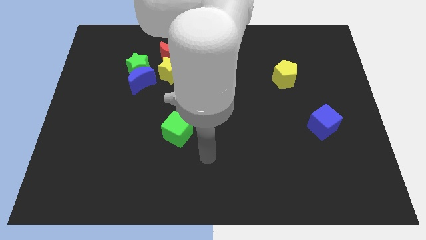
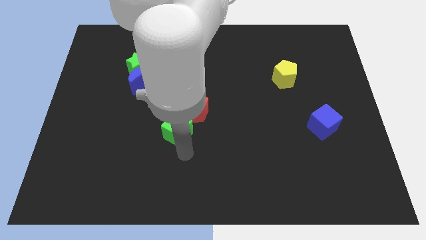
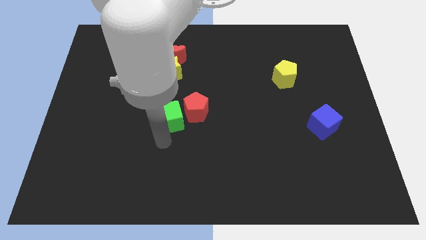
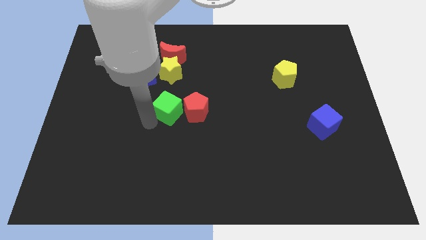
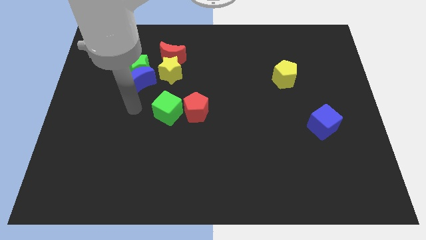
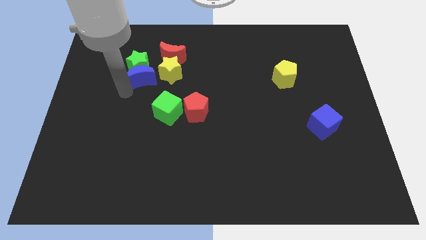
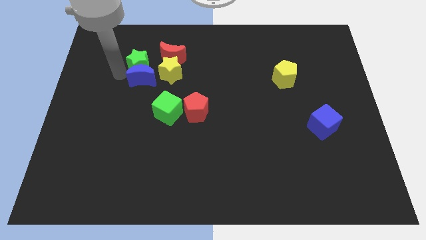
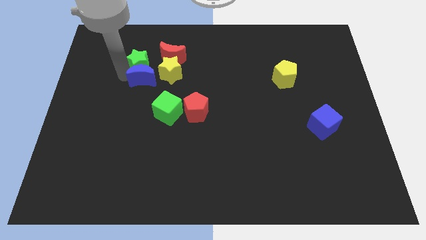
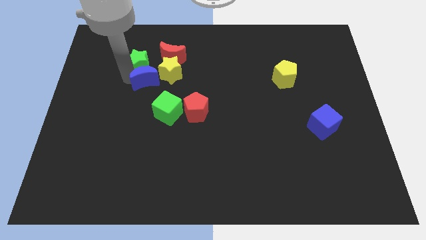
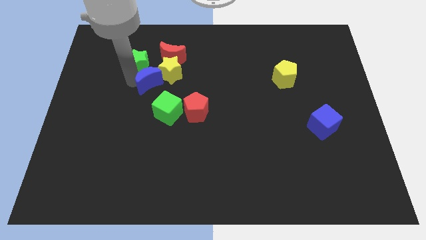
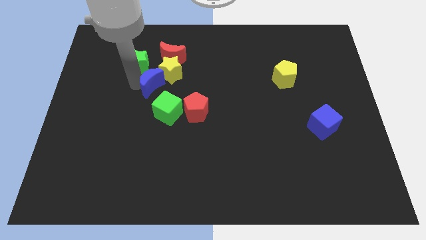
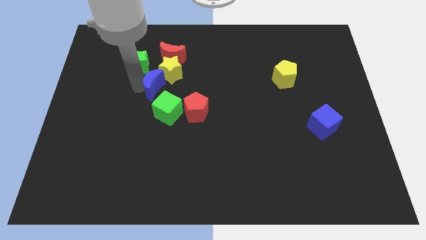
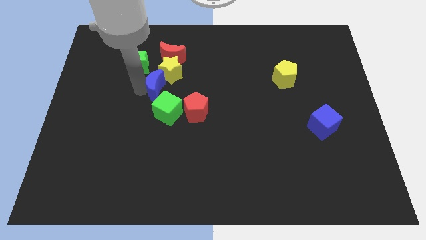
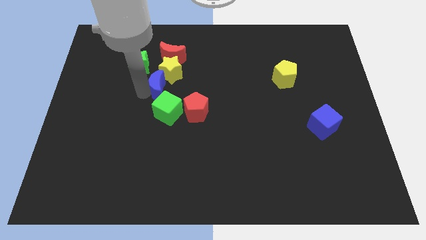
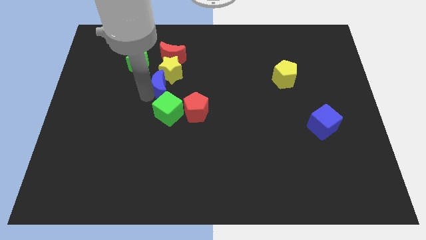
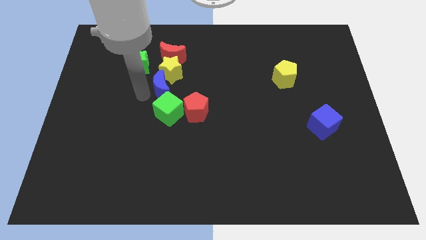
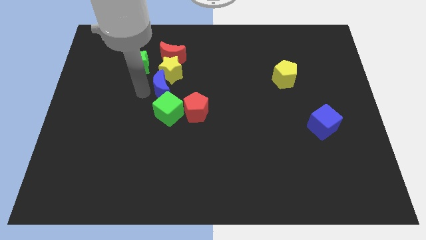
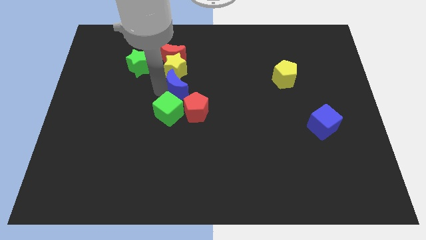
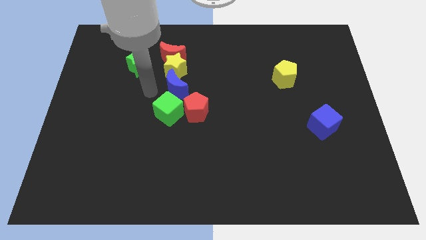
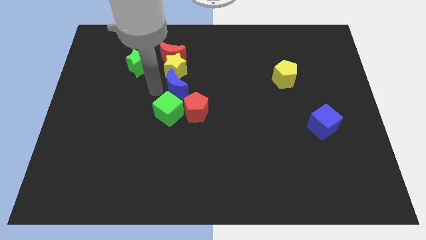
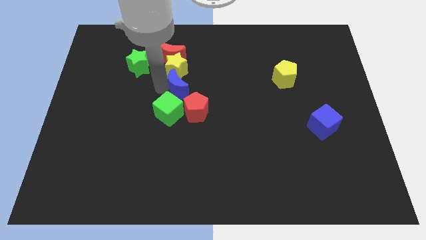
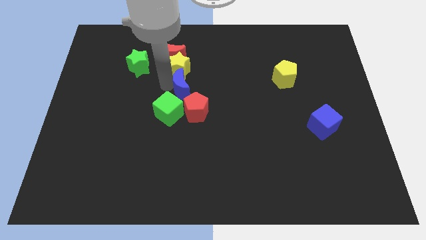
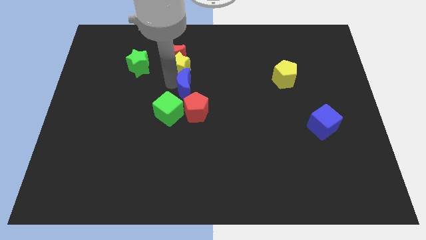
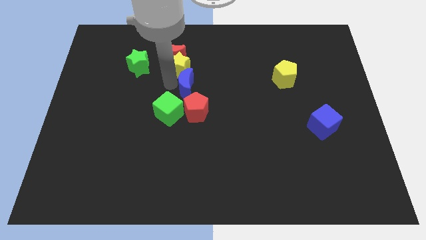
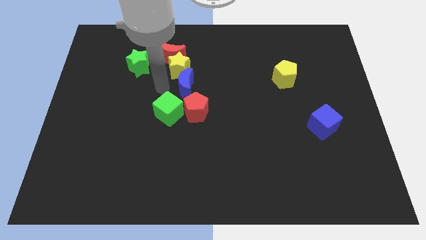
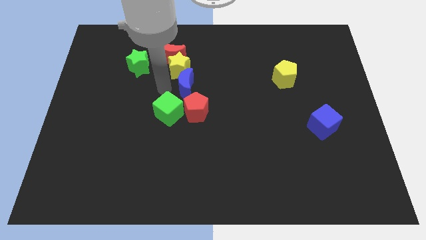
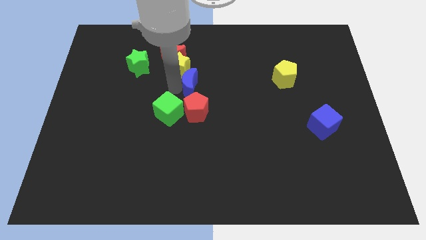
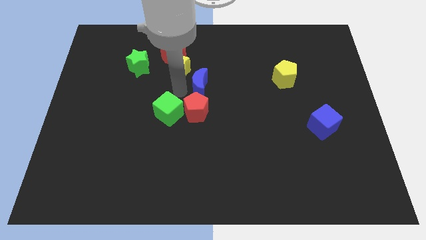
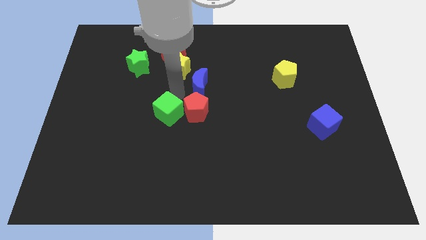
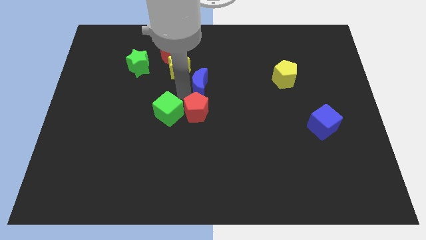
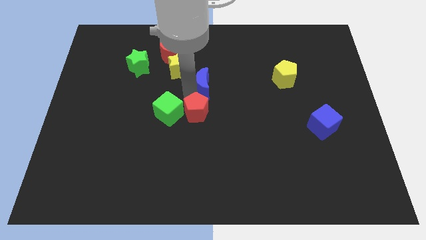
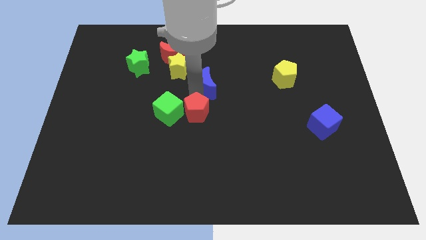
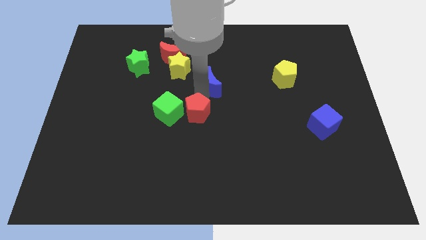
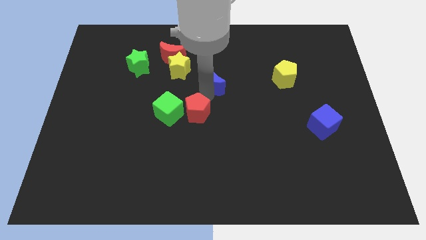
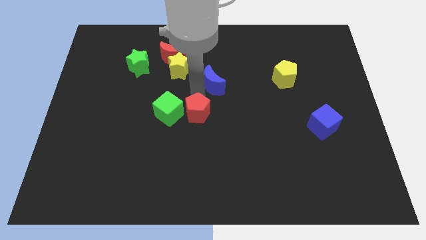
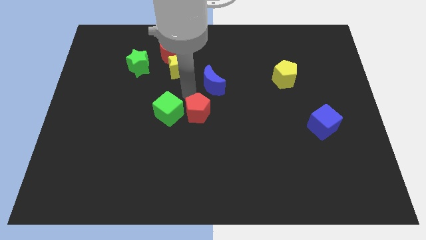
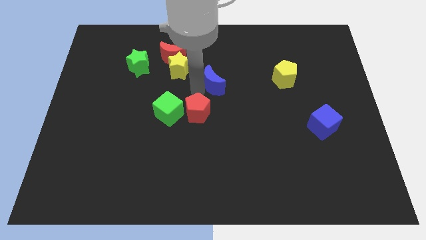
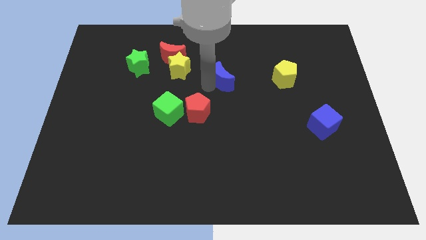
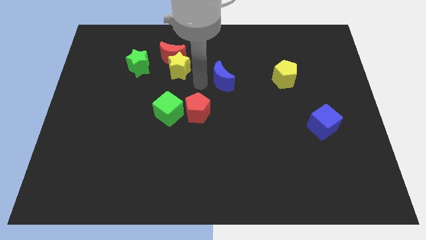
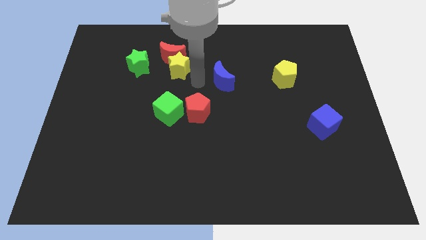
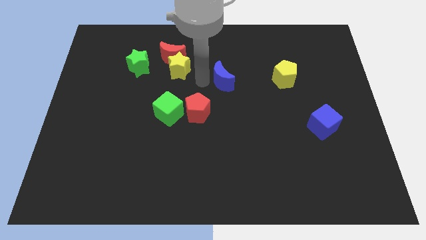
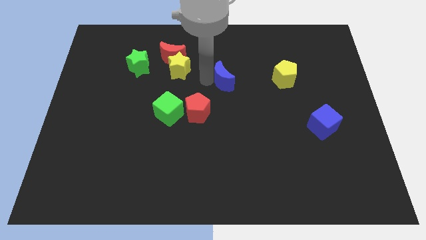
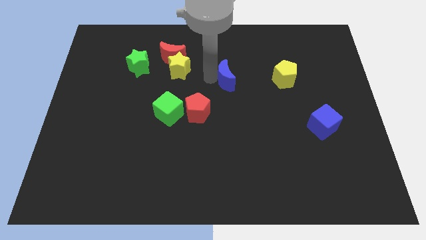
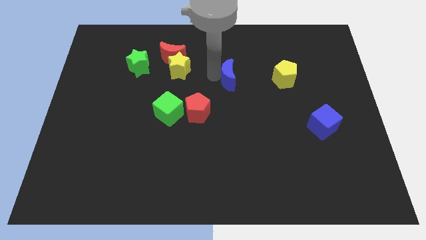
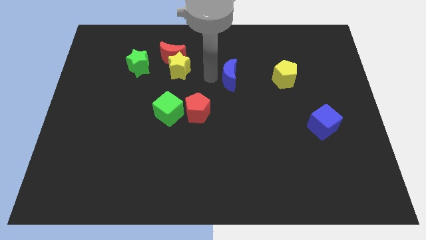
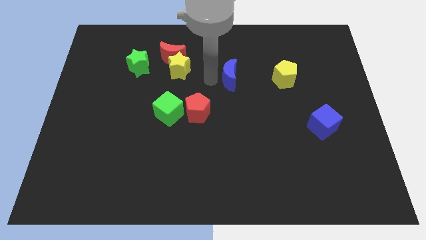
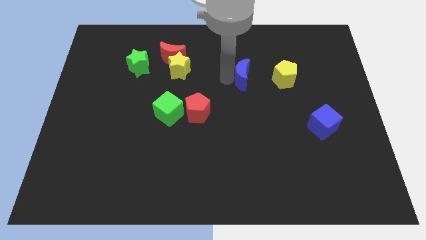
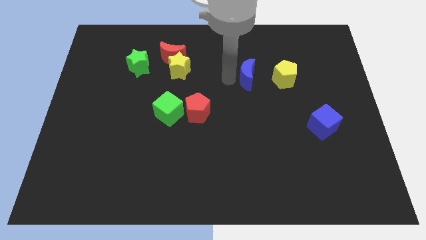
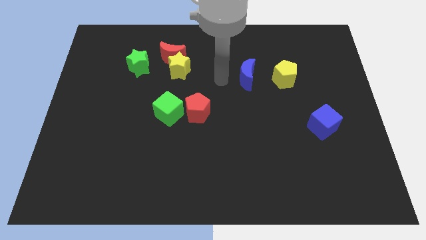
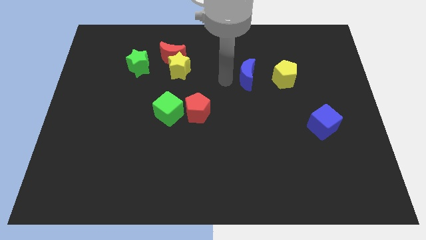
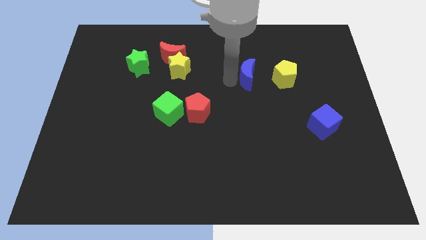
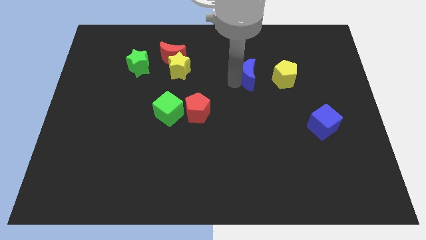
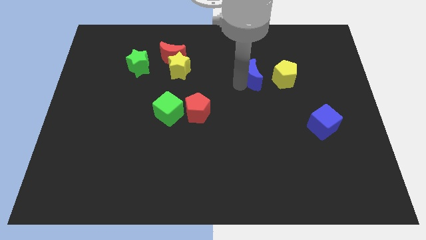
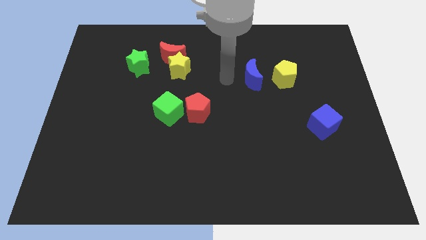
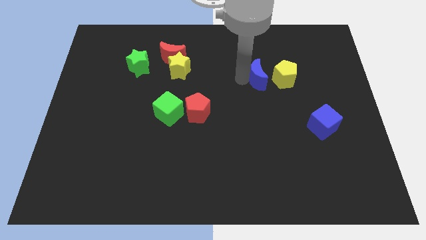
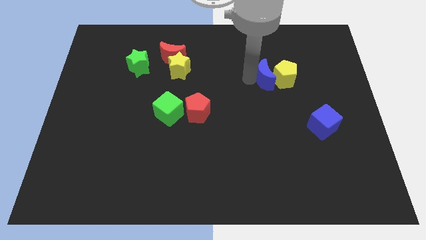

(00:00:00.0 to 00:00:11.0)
push the blue moon next to the yellow pentagon

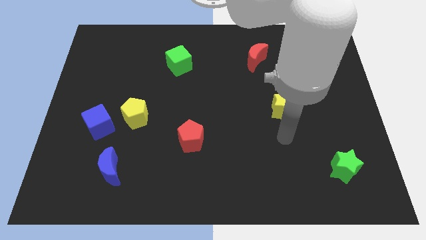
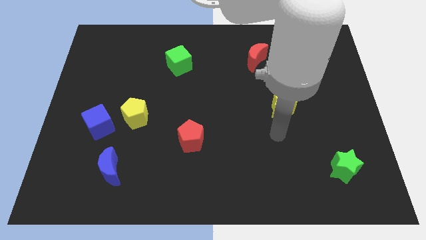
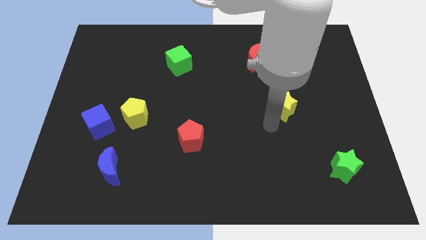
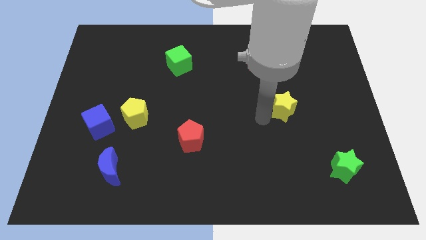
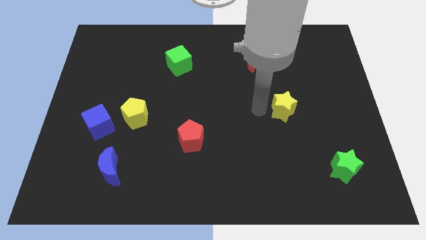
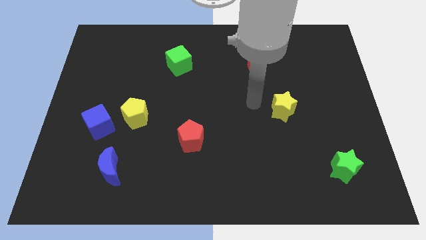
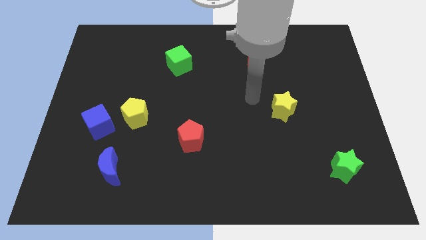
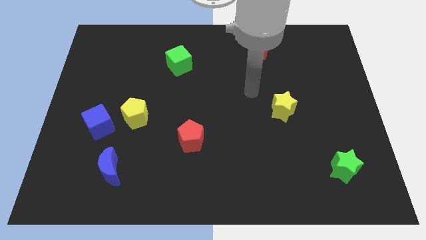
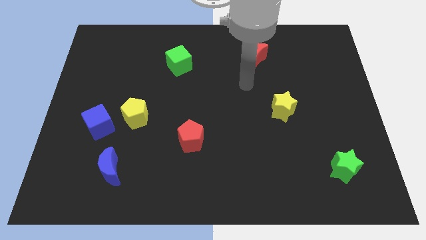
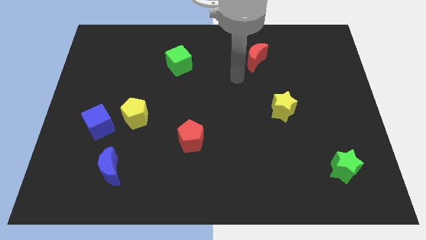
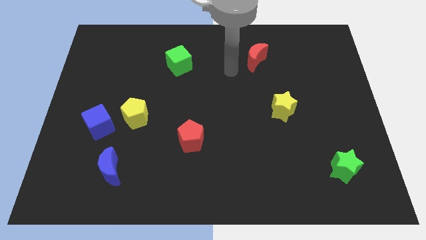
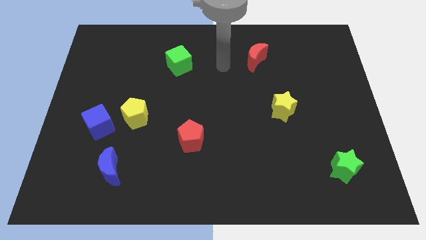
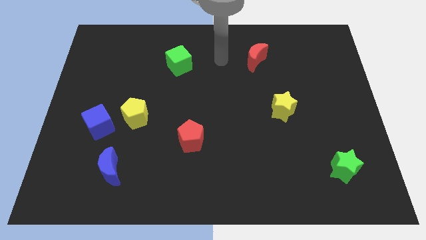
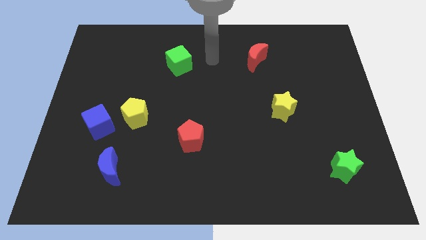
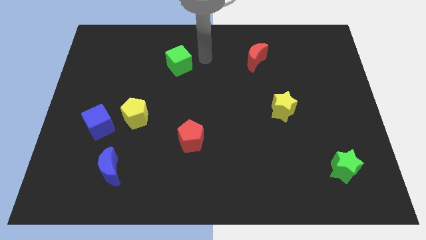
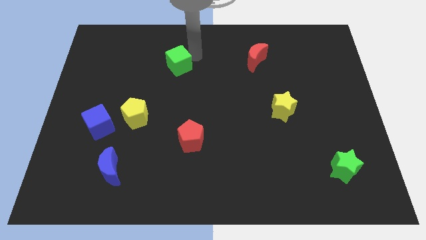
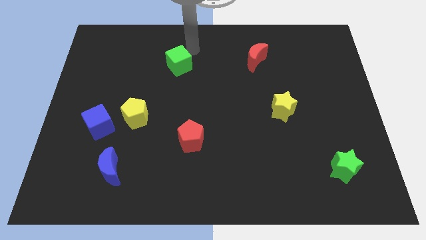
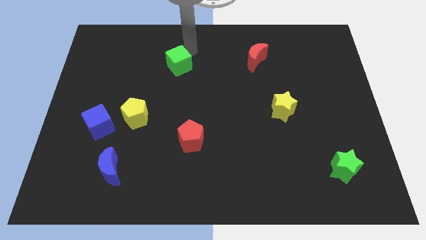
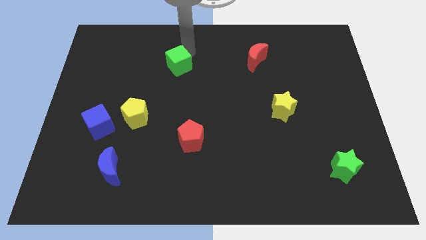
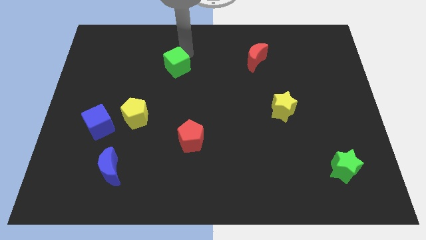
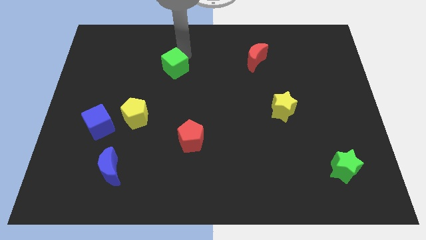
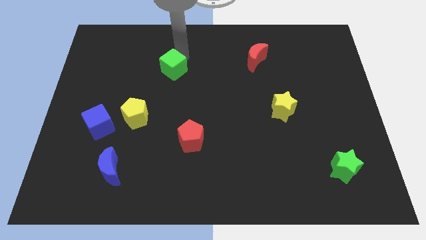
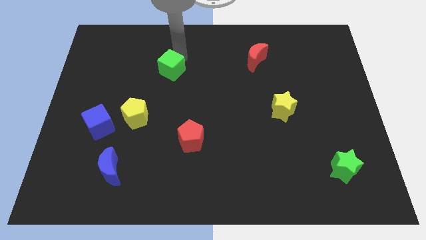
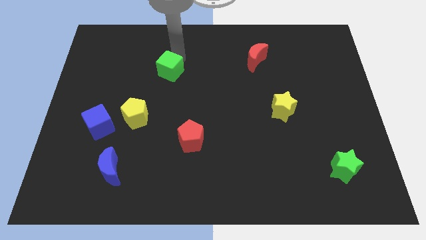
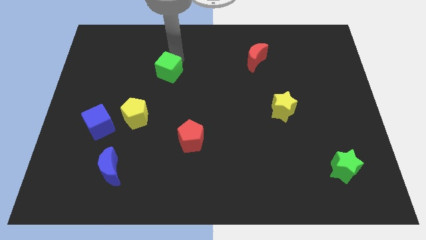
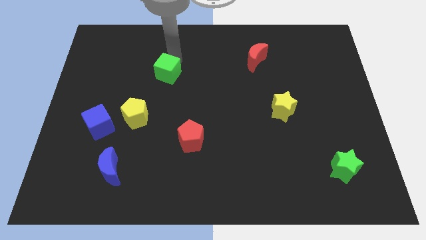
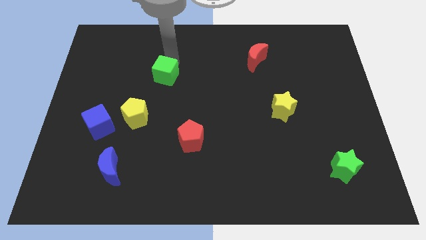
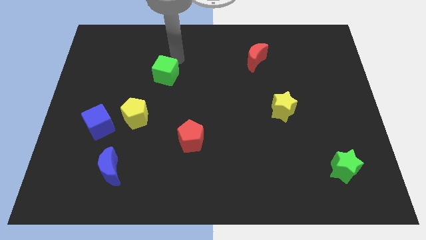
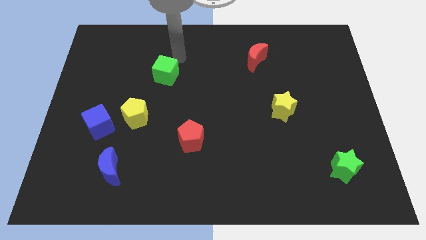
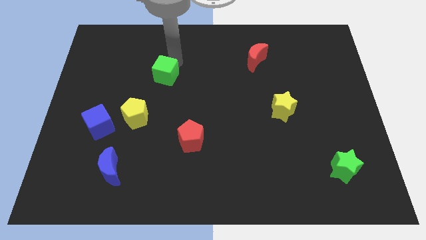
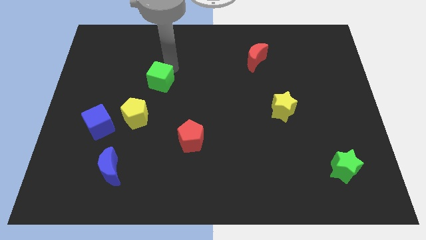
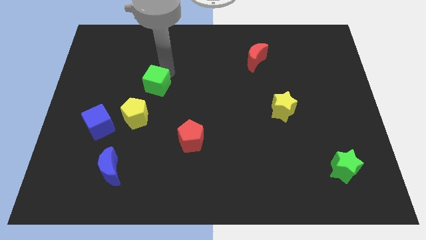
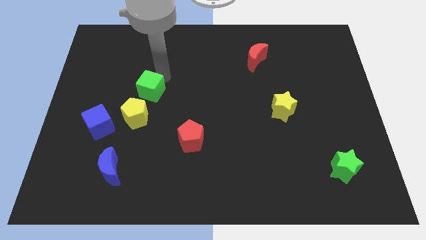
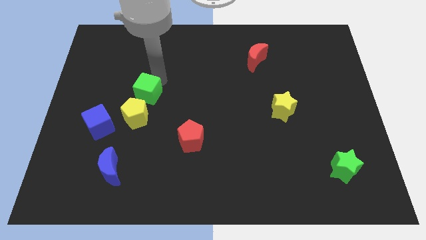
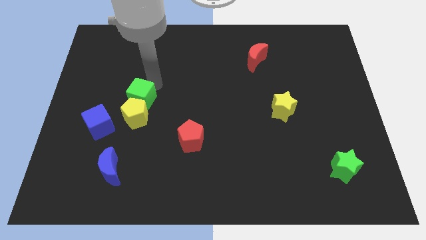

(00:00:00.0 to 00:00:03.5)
slide the green cube towards the yellow pentagon
